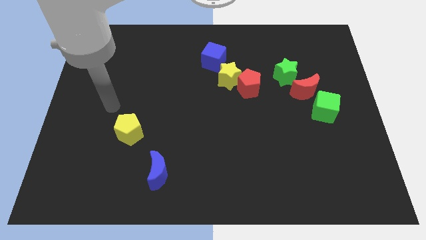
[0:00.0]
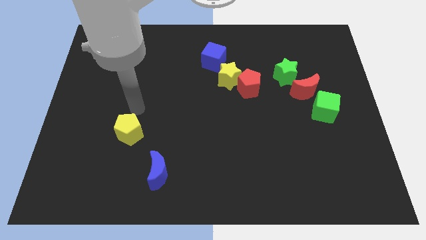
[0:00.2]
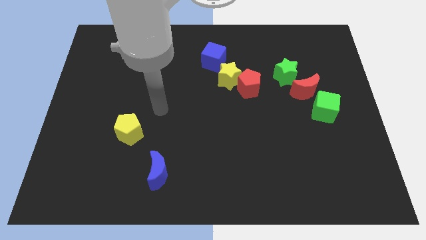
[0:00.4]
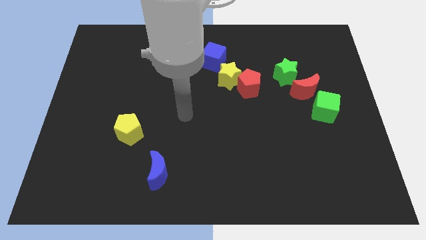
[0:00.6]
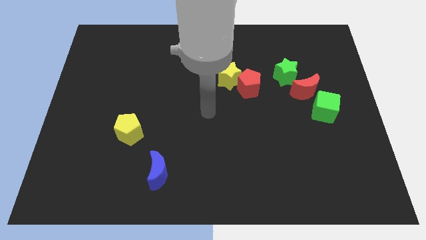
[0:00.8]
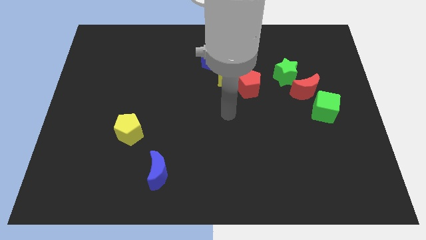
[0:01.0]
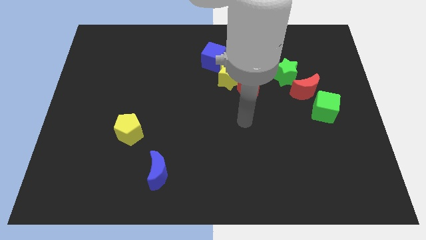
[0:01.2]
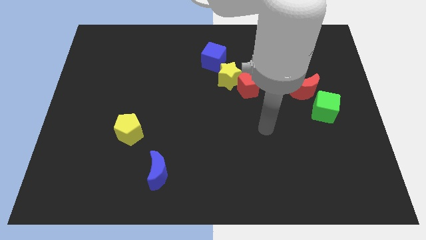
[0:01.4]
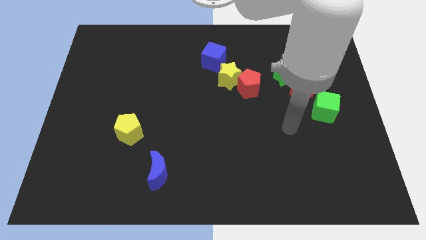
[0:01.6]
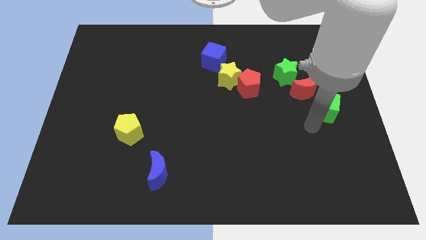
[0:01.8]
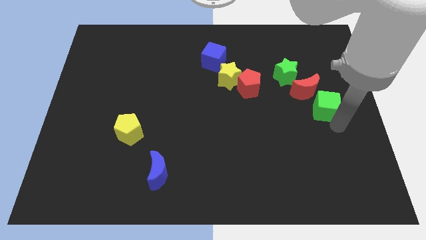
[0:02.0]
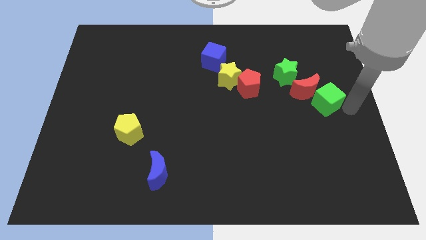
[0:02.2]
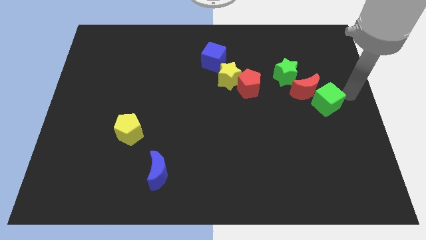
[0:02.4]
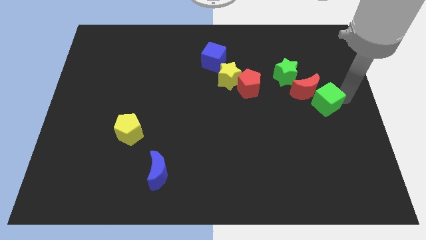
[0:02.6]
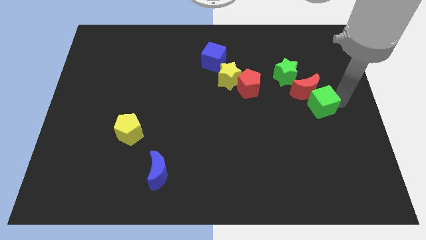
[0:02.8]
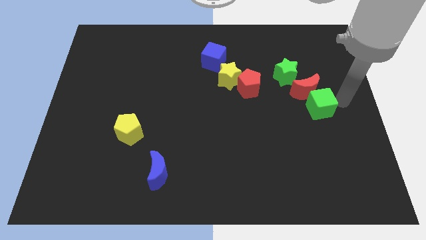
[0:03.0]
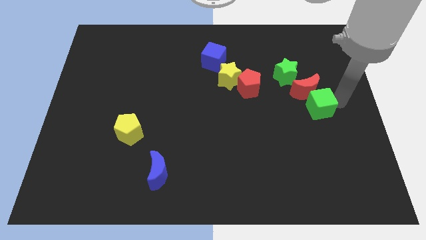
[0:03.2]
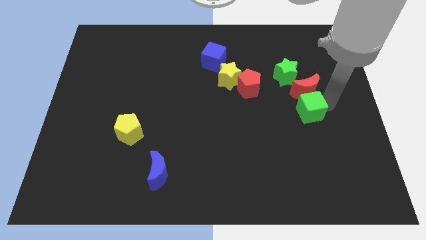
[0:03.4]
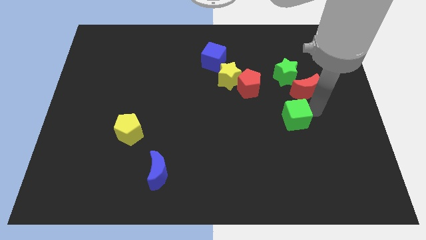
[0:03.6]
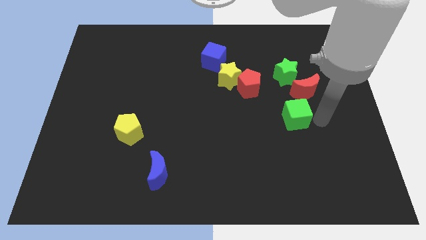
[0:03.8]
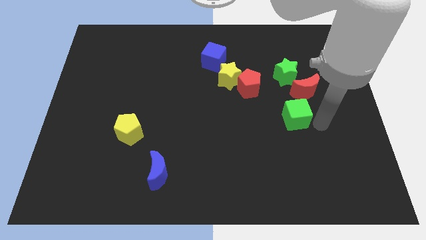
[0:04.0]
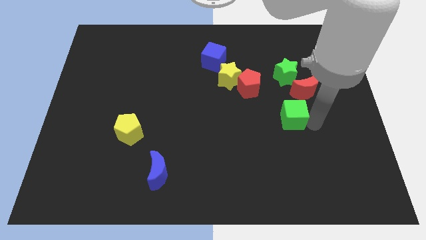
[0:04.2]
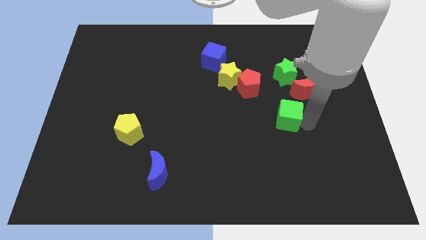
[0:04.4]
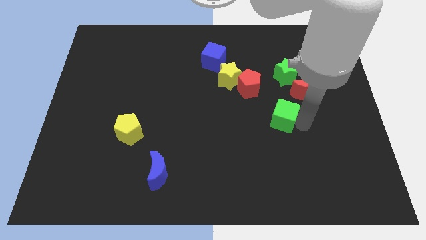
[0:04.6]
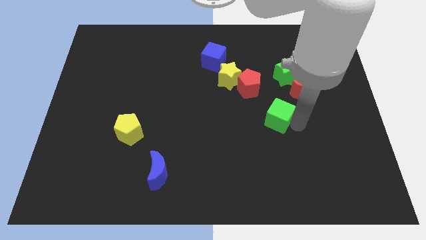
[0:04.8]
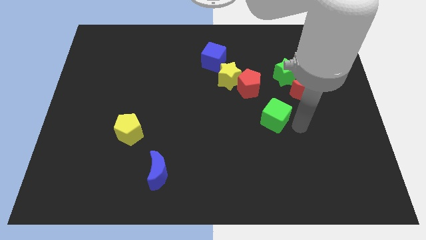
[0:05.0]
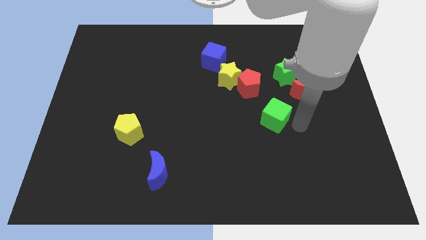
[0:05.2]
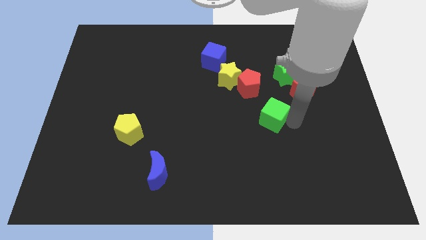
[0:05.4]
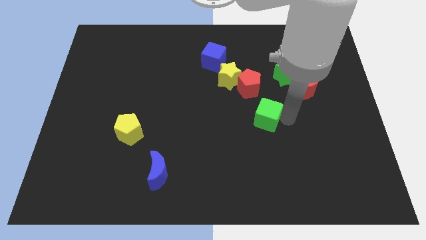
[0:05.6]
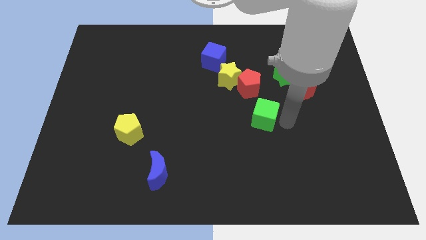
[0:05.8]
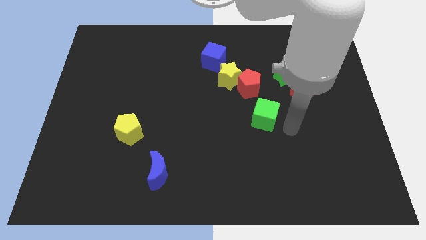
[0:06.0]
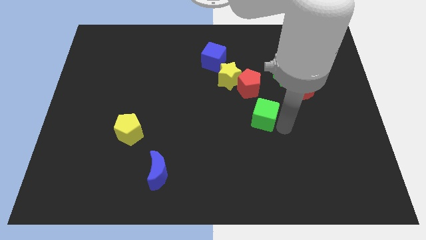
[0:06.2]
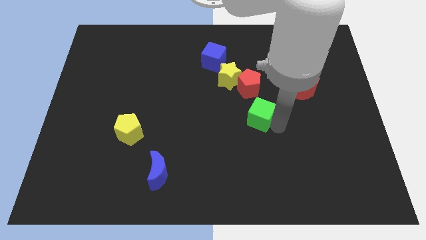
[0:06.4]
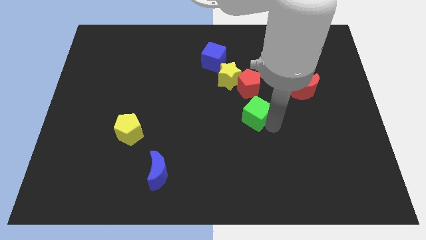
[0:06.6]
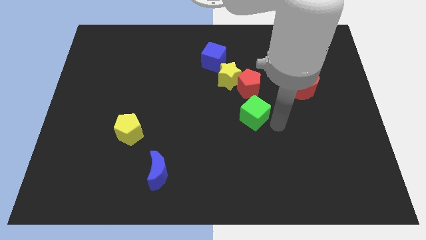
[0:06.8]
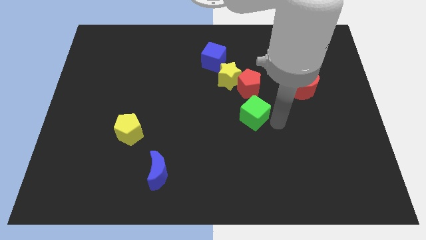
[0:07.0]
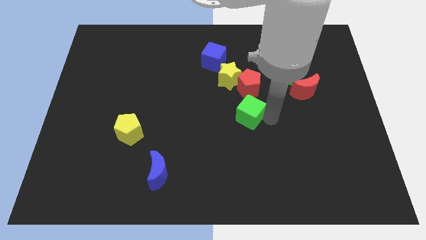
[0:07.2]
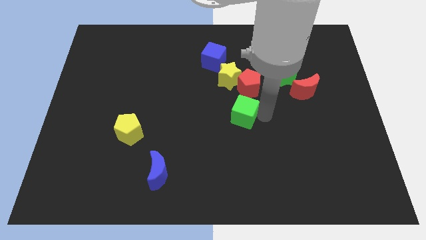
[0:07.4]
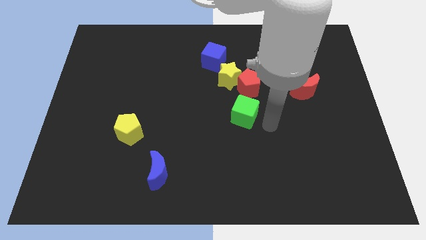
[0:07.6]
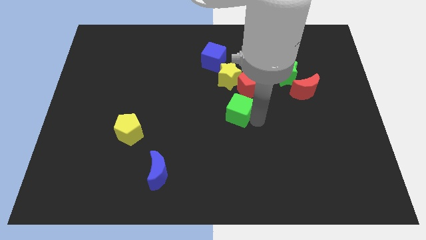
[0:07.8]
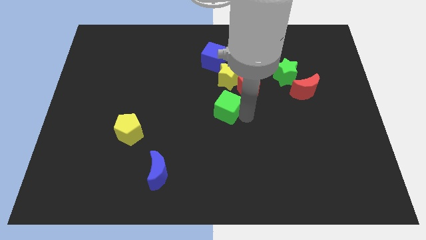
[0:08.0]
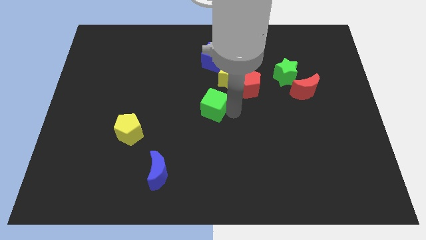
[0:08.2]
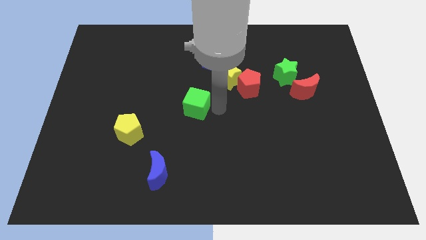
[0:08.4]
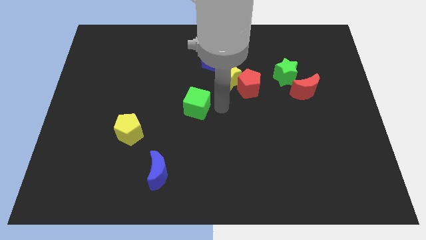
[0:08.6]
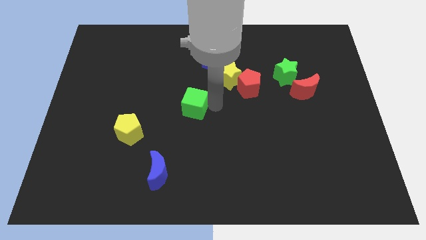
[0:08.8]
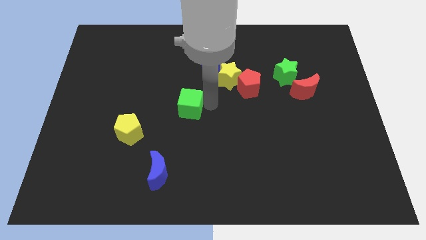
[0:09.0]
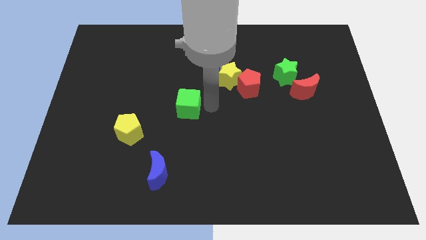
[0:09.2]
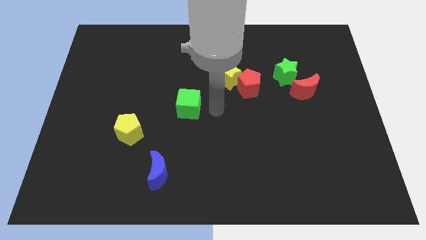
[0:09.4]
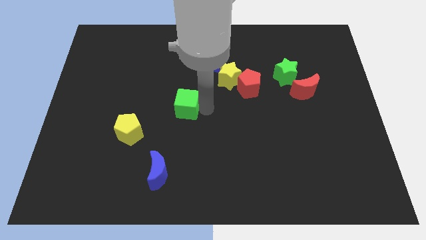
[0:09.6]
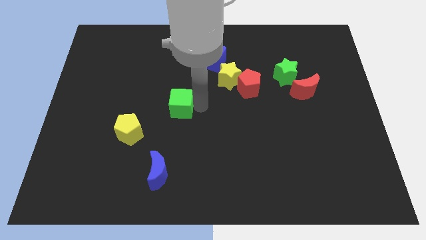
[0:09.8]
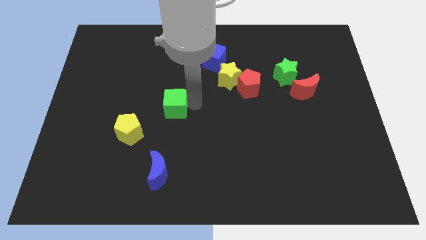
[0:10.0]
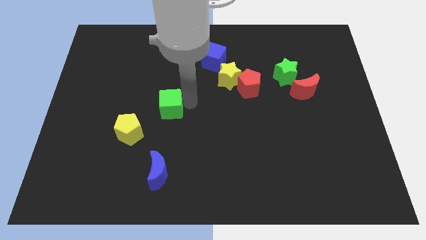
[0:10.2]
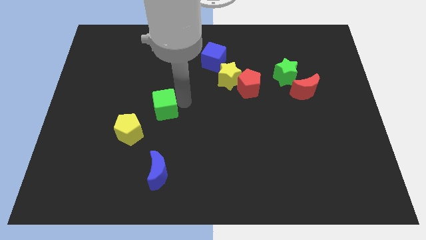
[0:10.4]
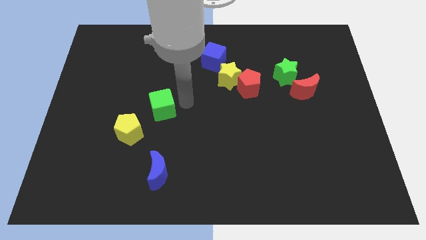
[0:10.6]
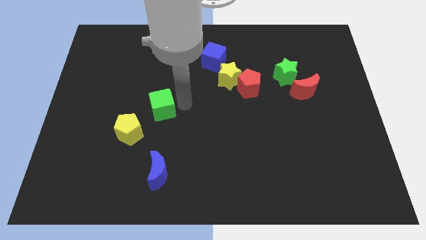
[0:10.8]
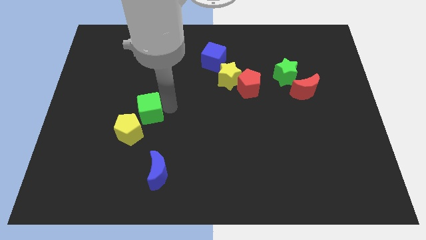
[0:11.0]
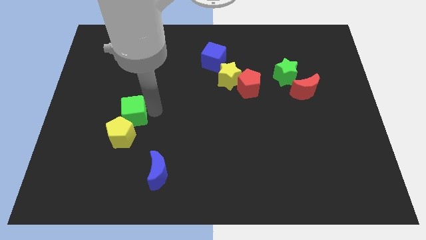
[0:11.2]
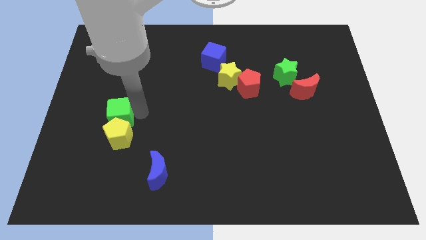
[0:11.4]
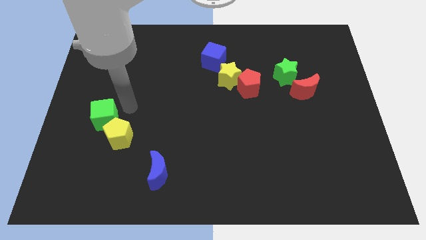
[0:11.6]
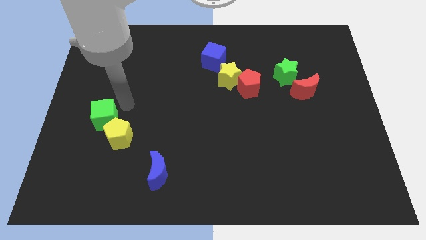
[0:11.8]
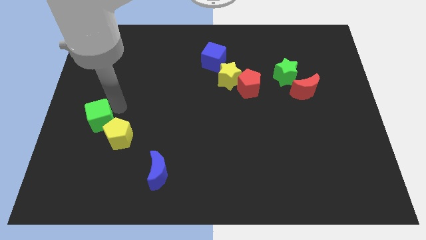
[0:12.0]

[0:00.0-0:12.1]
push the green cube to the left of the yellow pentagon
